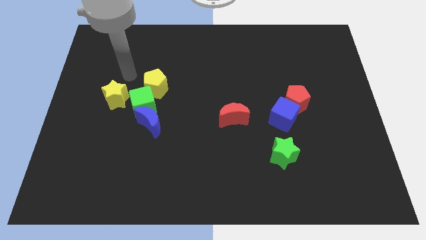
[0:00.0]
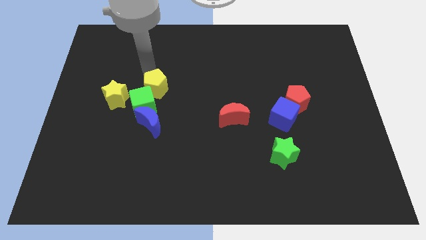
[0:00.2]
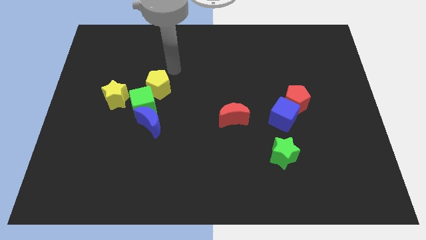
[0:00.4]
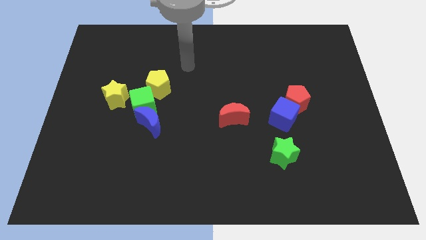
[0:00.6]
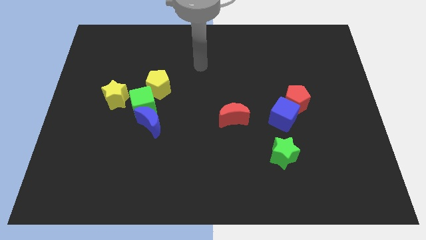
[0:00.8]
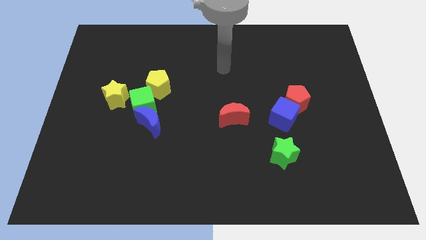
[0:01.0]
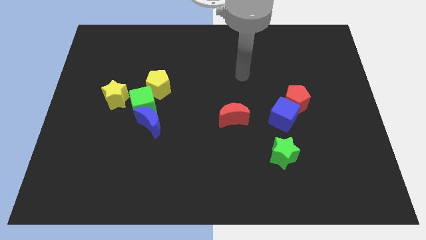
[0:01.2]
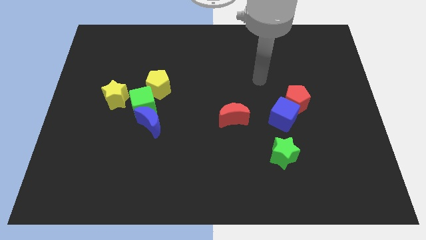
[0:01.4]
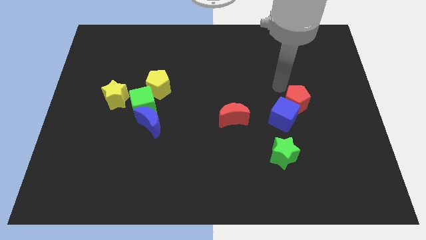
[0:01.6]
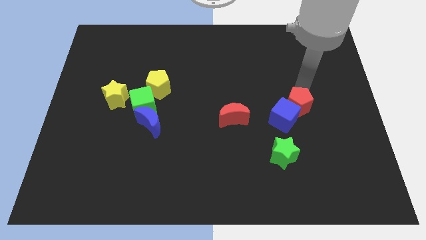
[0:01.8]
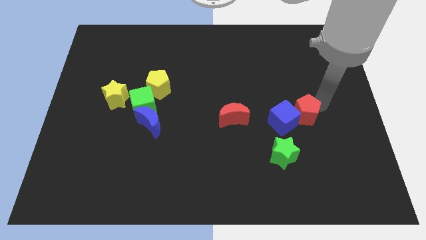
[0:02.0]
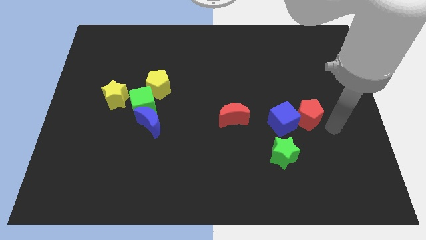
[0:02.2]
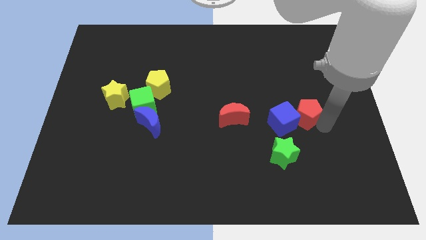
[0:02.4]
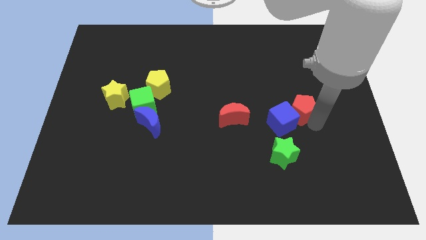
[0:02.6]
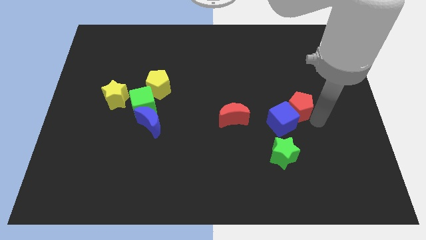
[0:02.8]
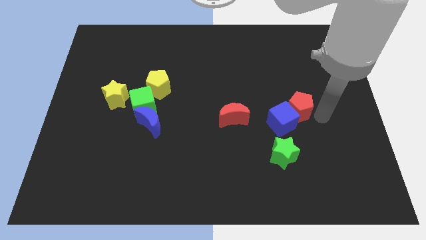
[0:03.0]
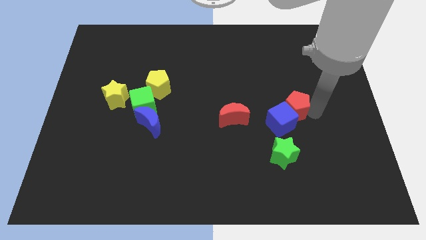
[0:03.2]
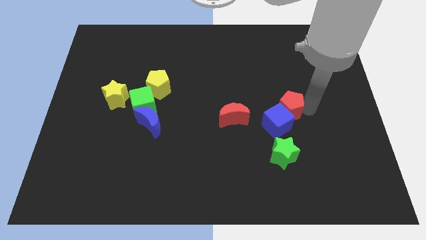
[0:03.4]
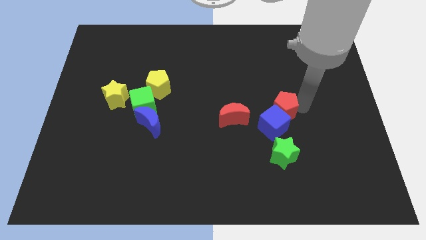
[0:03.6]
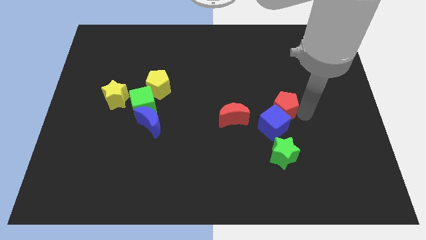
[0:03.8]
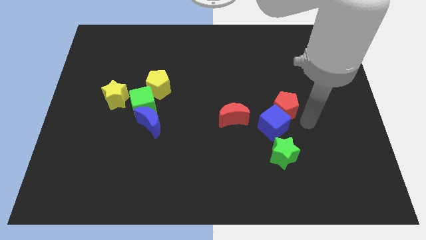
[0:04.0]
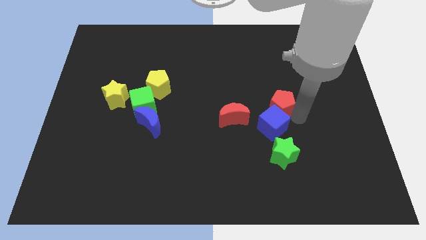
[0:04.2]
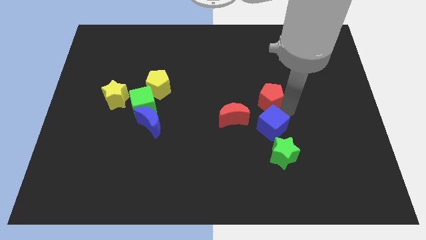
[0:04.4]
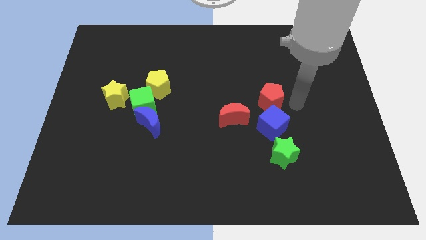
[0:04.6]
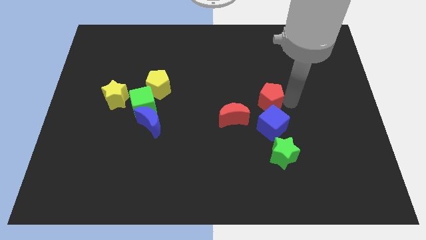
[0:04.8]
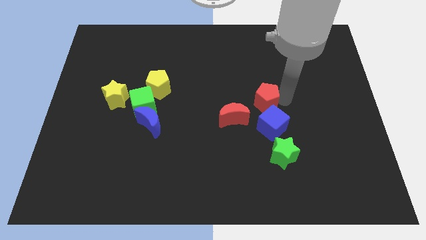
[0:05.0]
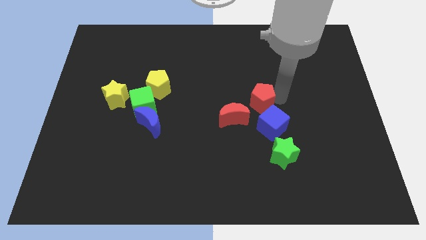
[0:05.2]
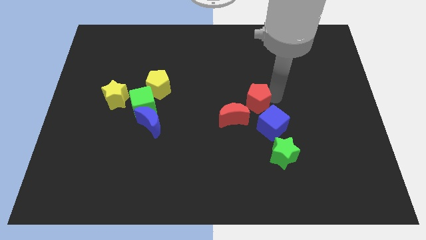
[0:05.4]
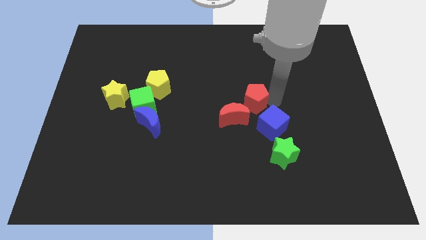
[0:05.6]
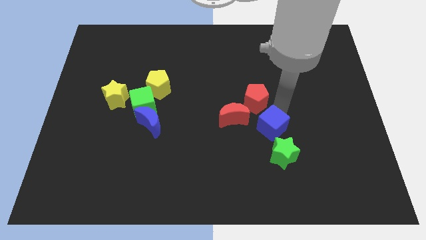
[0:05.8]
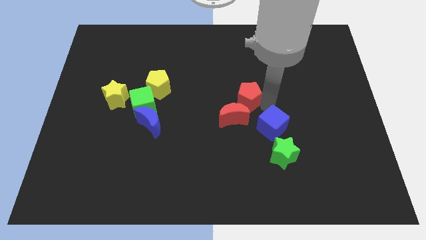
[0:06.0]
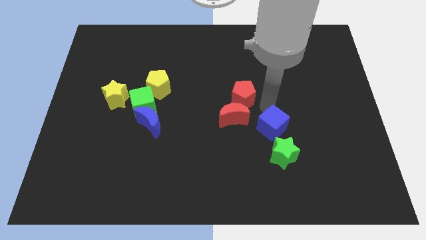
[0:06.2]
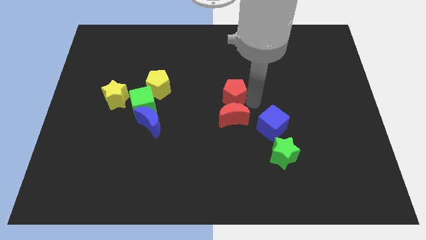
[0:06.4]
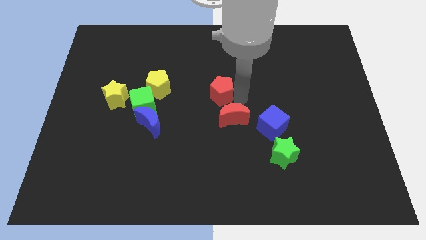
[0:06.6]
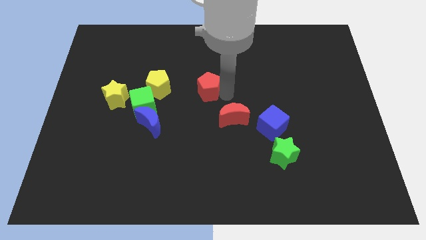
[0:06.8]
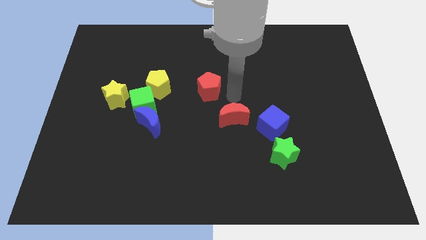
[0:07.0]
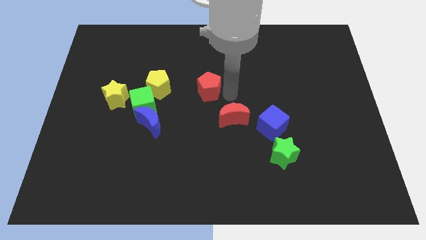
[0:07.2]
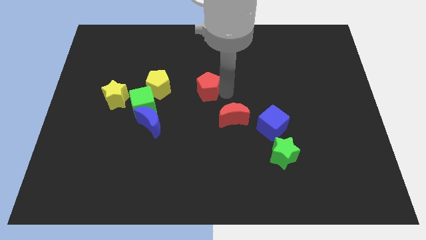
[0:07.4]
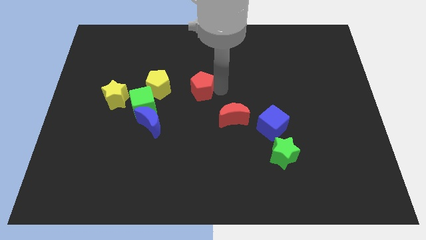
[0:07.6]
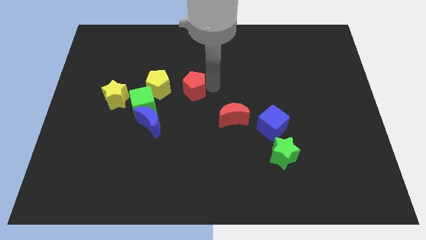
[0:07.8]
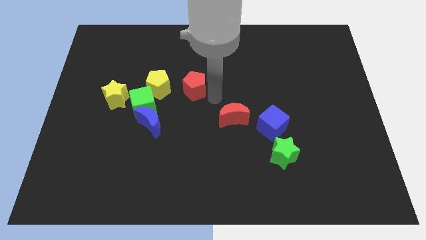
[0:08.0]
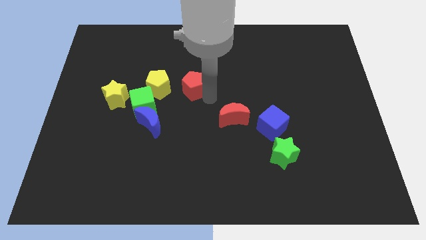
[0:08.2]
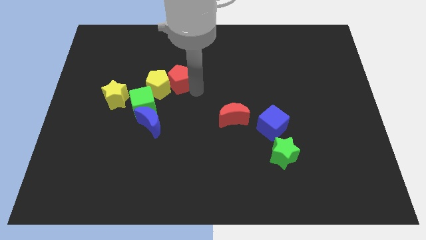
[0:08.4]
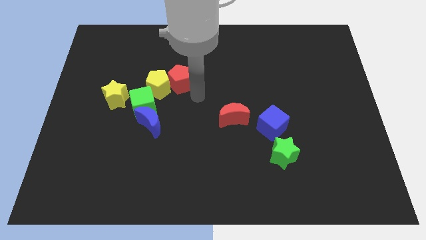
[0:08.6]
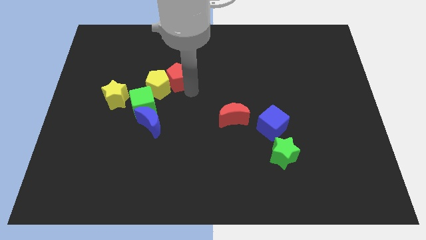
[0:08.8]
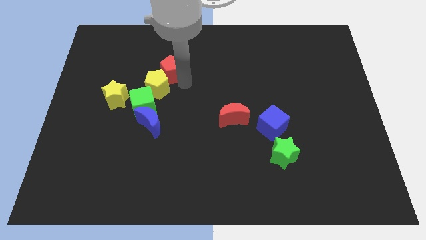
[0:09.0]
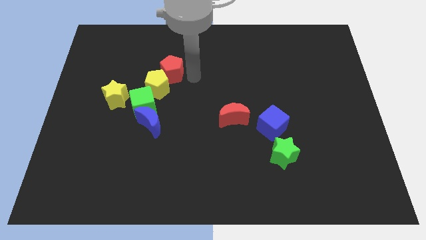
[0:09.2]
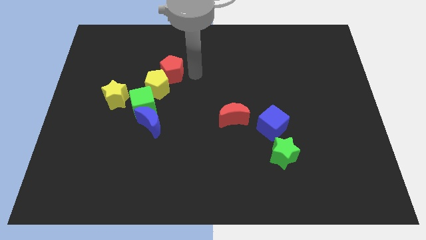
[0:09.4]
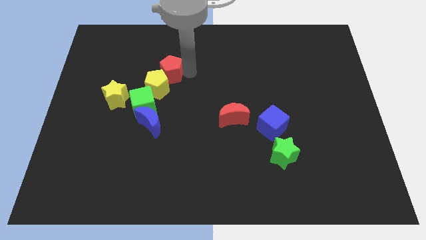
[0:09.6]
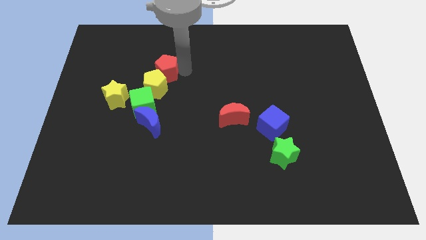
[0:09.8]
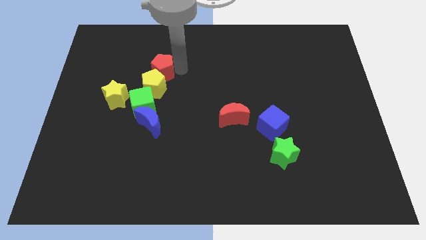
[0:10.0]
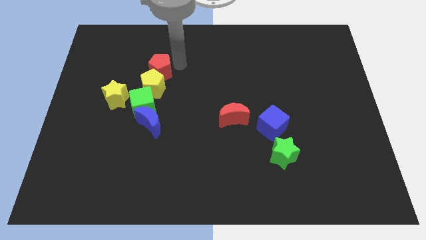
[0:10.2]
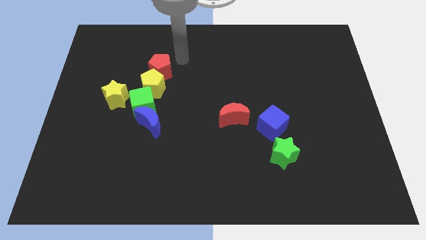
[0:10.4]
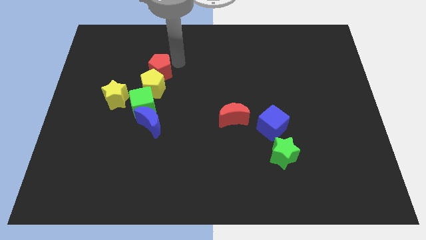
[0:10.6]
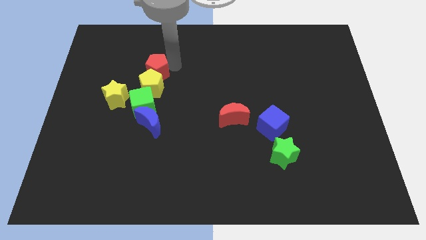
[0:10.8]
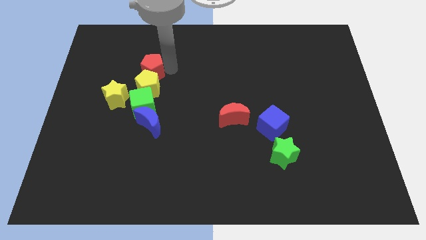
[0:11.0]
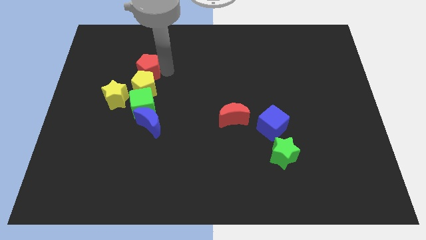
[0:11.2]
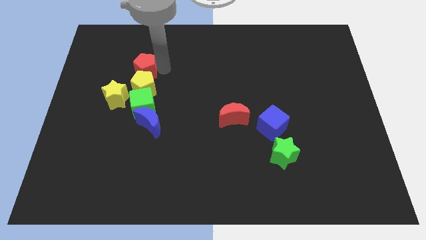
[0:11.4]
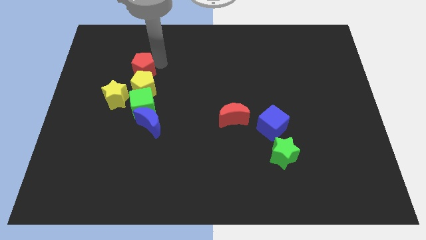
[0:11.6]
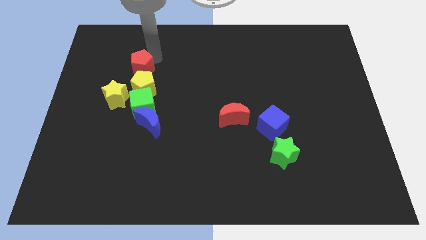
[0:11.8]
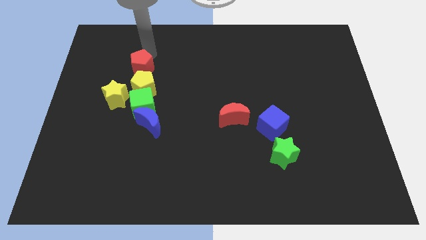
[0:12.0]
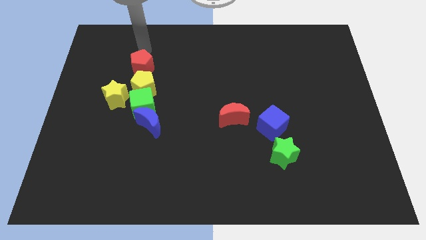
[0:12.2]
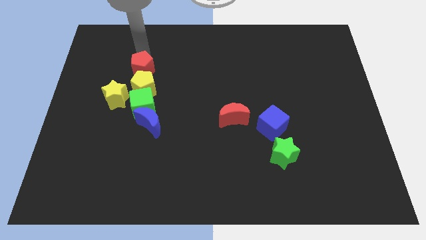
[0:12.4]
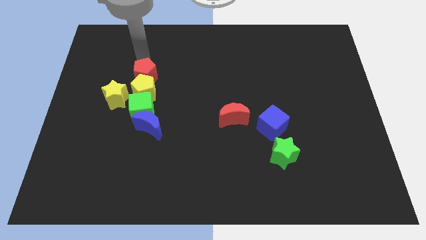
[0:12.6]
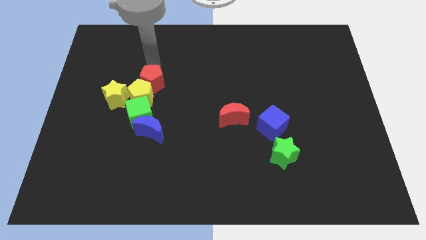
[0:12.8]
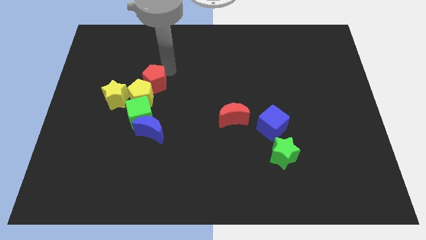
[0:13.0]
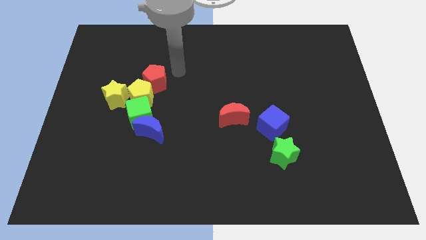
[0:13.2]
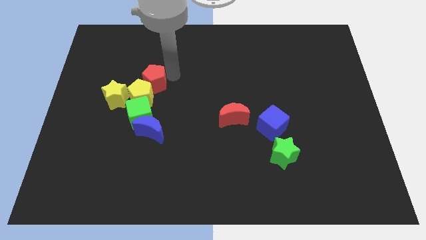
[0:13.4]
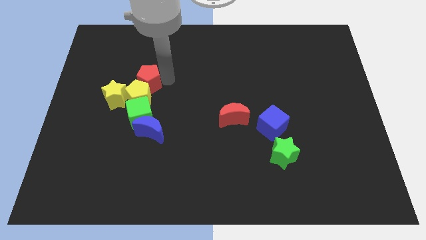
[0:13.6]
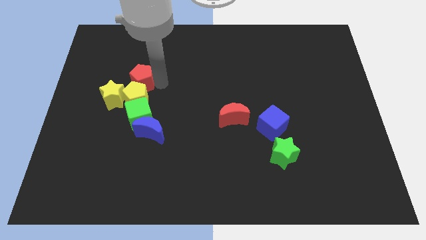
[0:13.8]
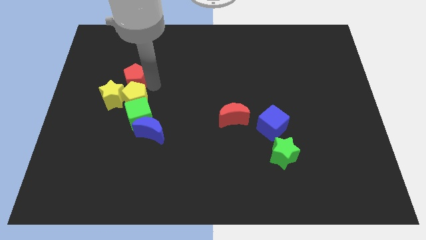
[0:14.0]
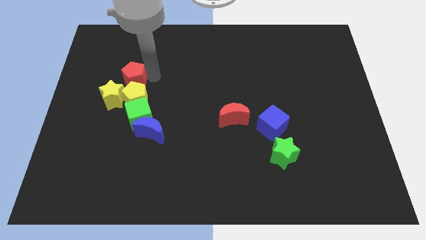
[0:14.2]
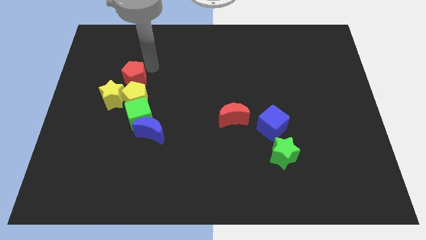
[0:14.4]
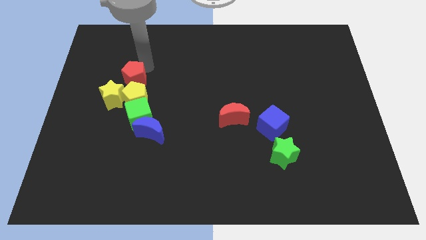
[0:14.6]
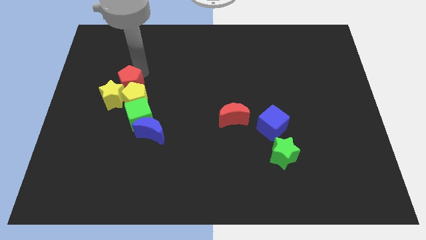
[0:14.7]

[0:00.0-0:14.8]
push the red pentagon close to the yellow star
